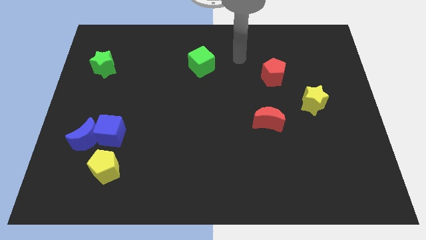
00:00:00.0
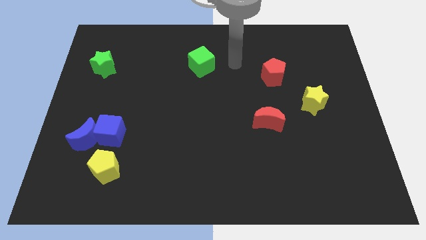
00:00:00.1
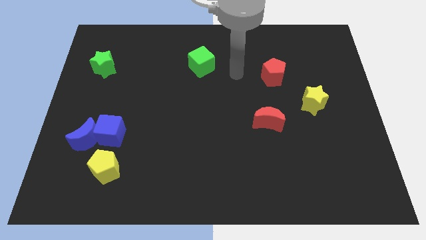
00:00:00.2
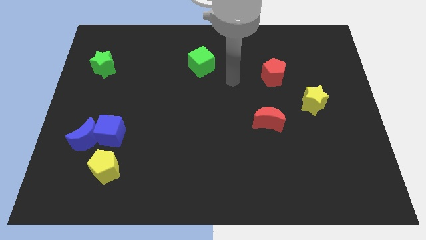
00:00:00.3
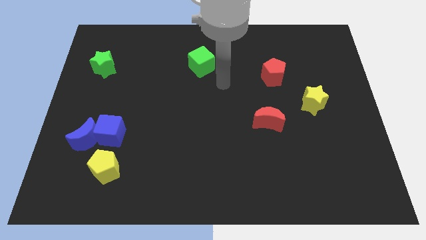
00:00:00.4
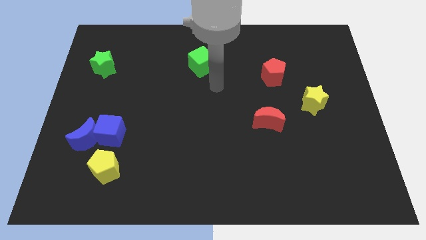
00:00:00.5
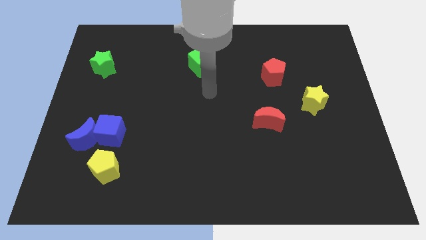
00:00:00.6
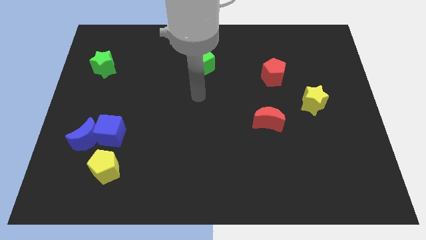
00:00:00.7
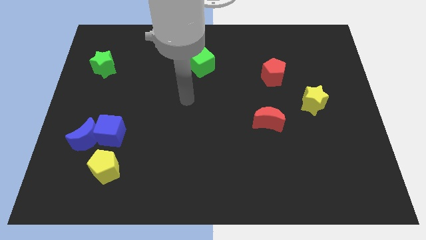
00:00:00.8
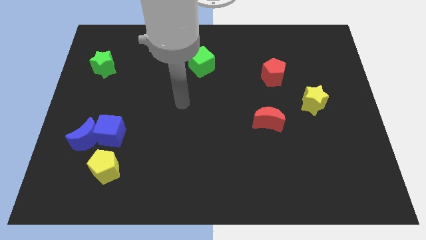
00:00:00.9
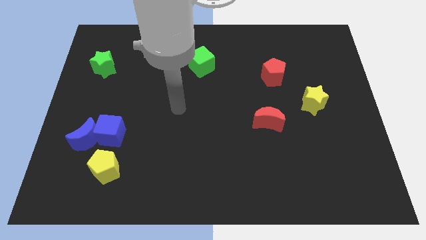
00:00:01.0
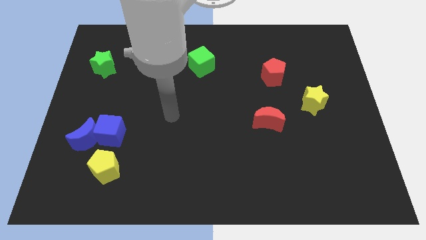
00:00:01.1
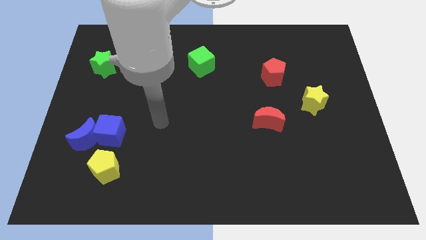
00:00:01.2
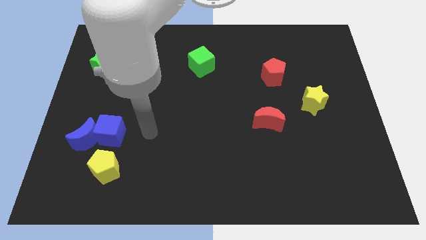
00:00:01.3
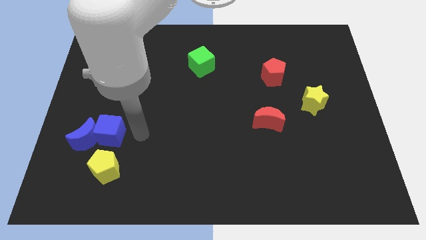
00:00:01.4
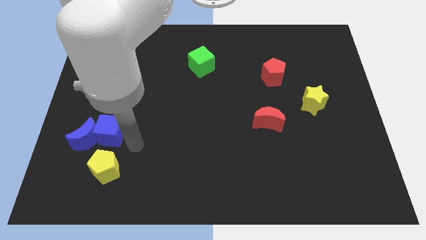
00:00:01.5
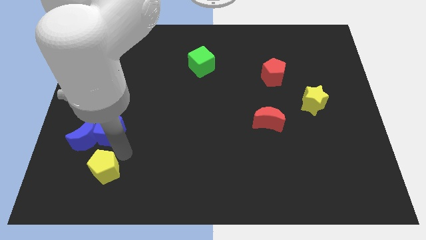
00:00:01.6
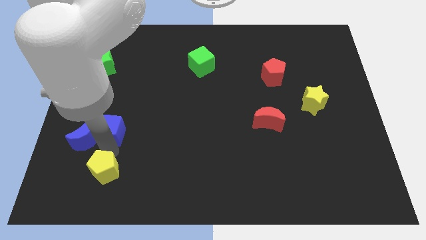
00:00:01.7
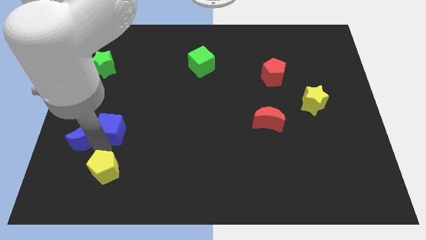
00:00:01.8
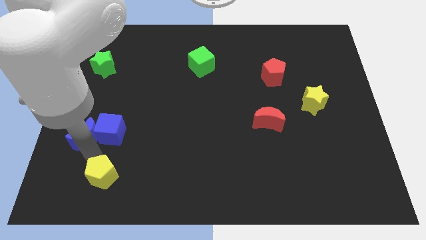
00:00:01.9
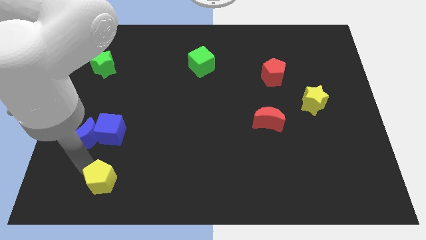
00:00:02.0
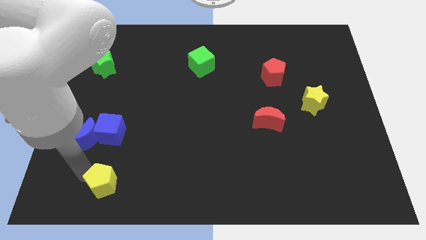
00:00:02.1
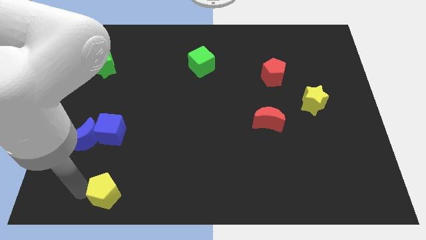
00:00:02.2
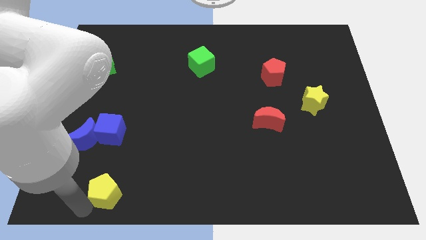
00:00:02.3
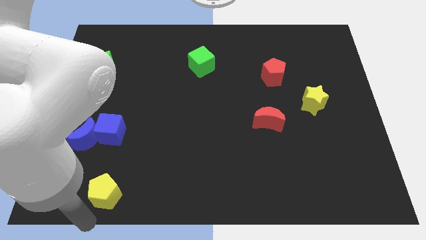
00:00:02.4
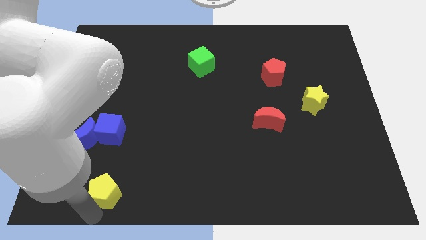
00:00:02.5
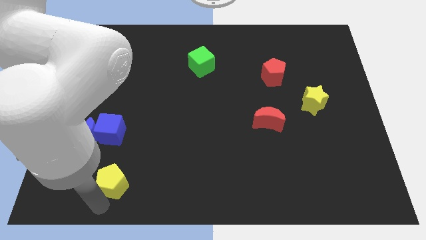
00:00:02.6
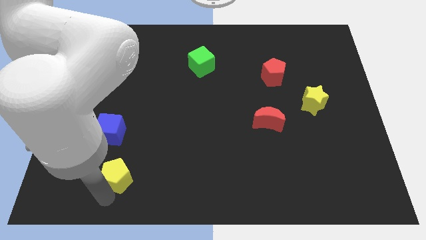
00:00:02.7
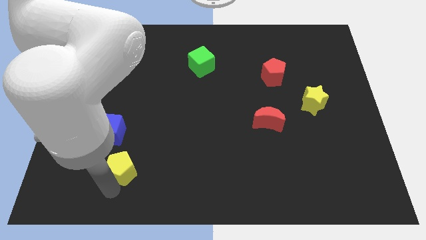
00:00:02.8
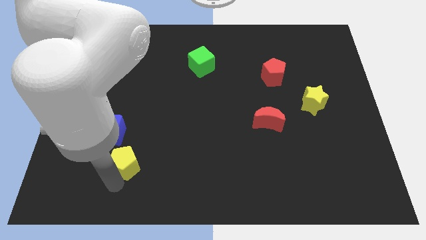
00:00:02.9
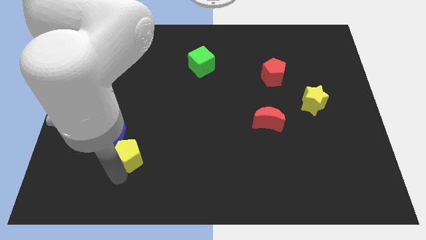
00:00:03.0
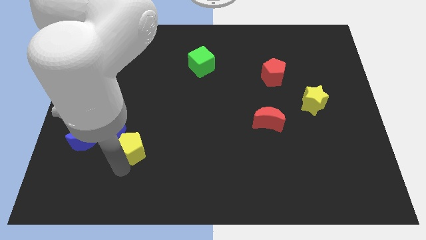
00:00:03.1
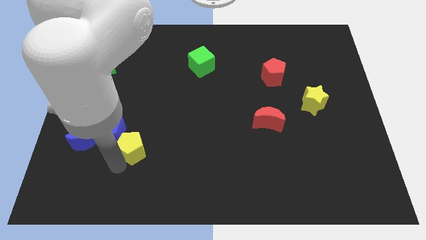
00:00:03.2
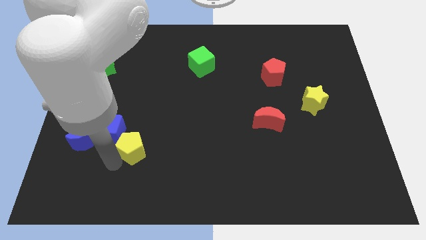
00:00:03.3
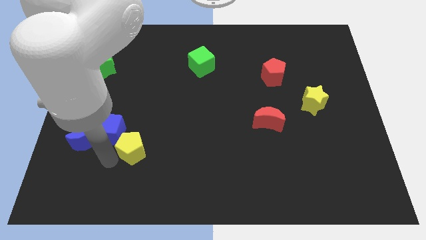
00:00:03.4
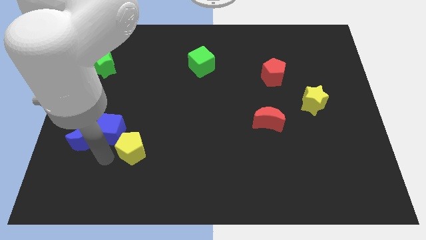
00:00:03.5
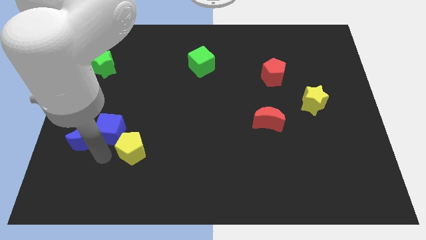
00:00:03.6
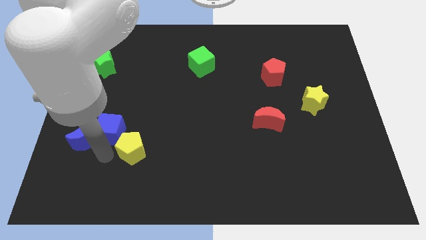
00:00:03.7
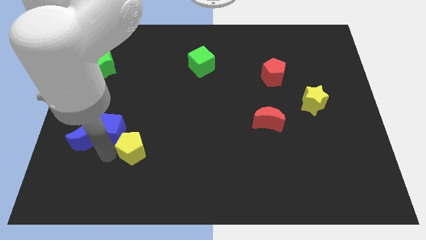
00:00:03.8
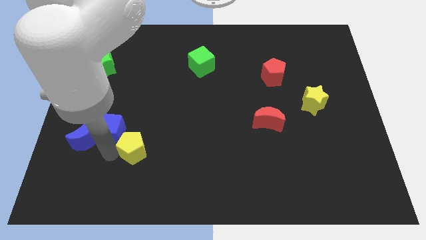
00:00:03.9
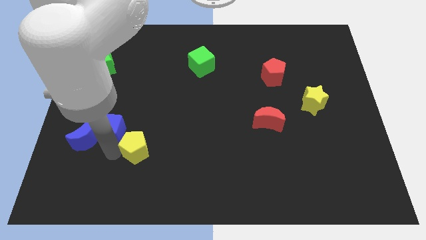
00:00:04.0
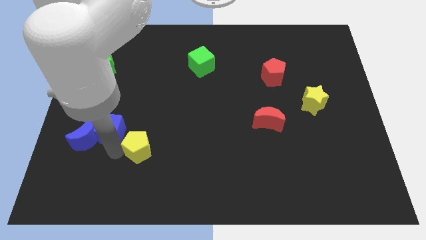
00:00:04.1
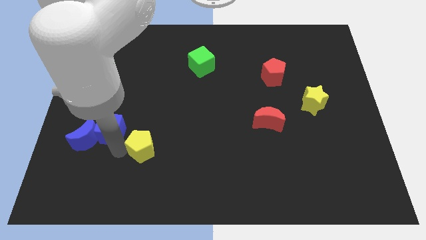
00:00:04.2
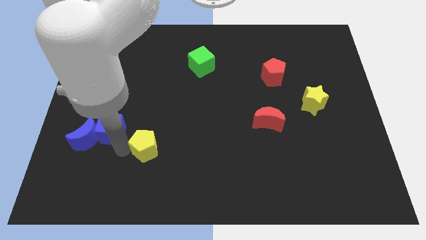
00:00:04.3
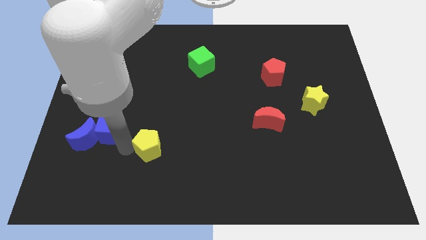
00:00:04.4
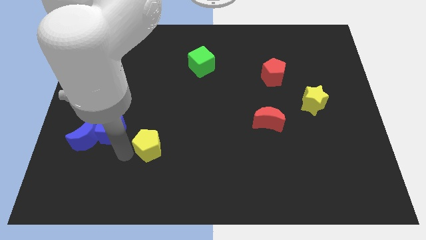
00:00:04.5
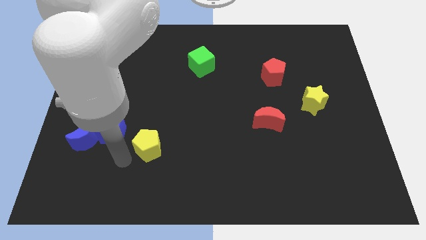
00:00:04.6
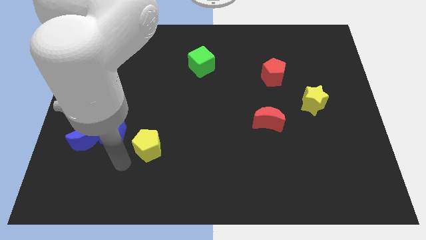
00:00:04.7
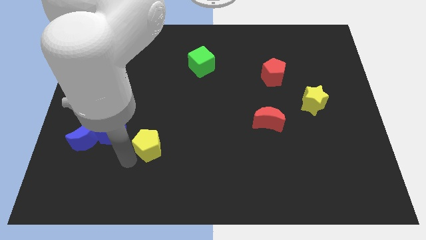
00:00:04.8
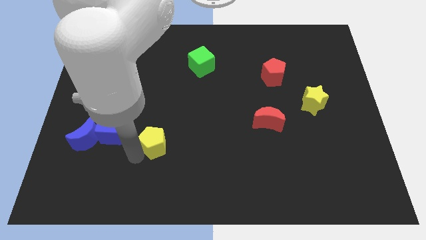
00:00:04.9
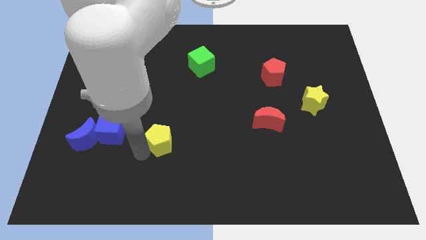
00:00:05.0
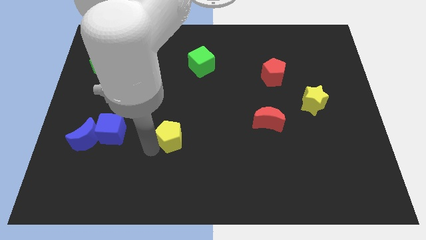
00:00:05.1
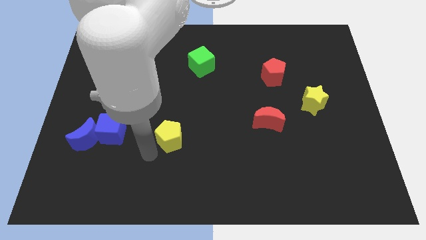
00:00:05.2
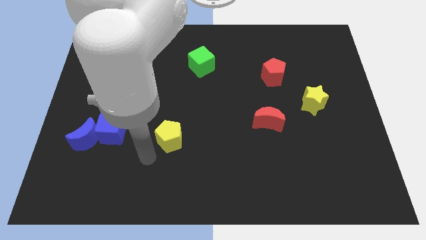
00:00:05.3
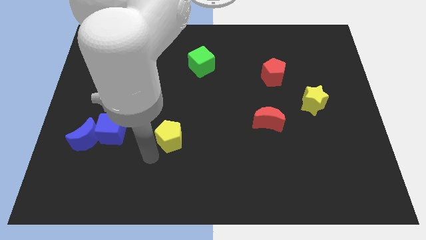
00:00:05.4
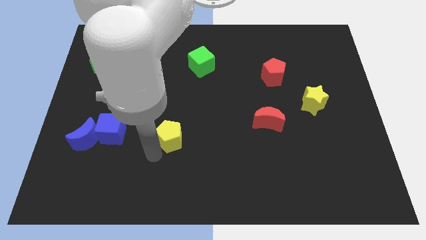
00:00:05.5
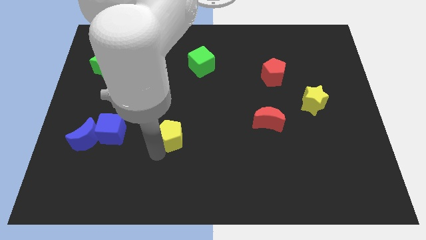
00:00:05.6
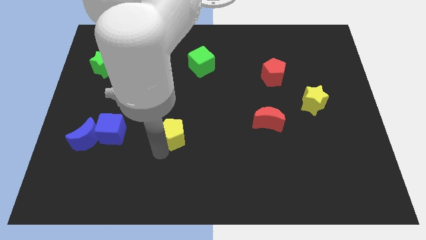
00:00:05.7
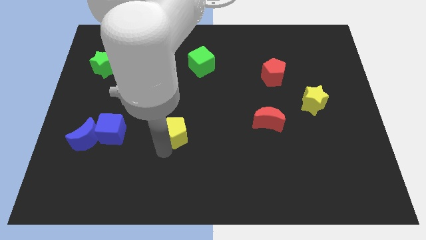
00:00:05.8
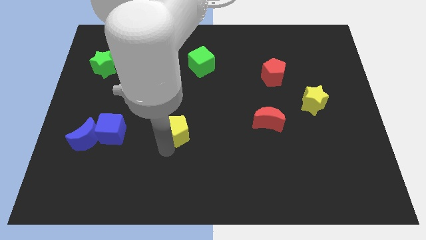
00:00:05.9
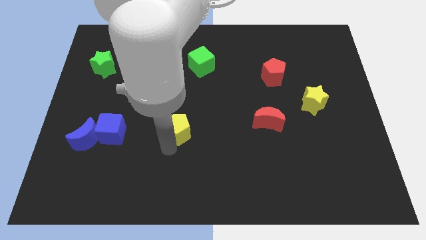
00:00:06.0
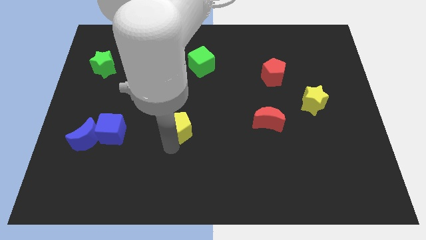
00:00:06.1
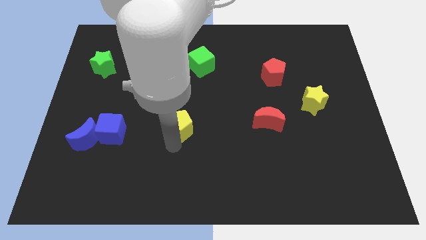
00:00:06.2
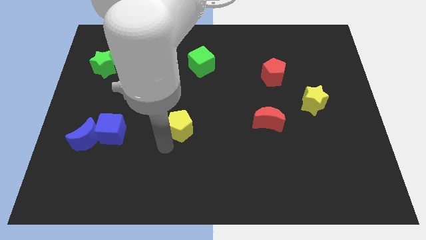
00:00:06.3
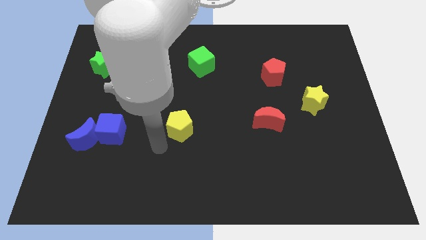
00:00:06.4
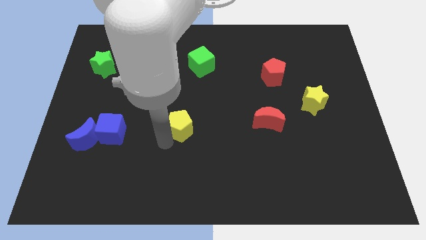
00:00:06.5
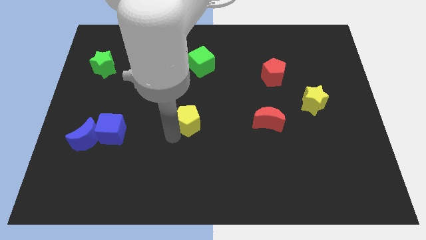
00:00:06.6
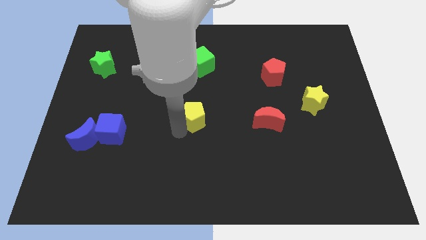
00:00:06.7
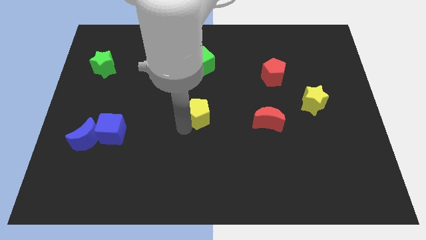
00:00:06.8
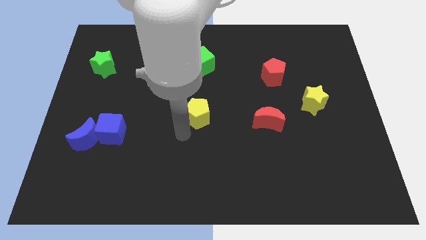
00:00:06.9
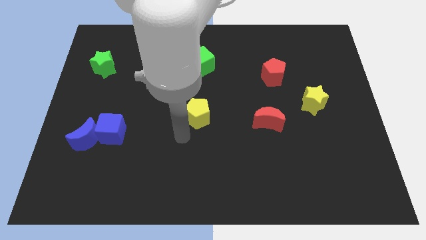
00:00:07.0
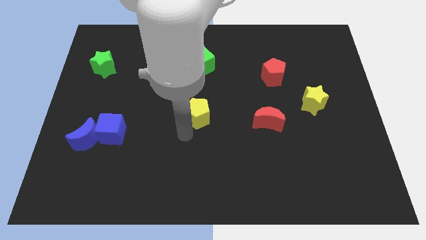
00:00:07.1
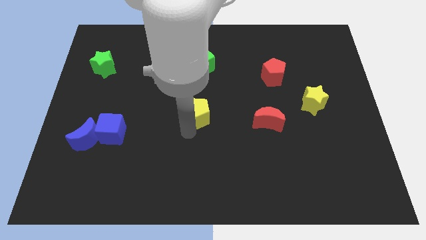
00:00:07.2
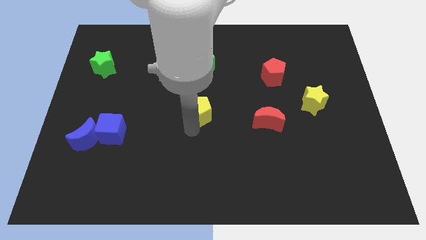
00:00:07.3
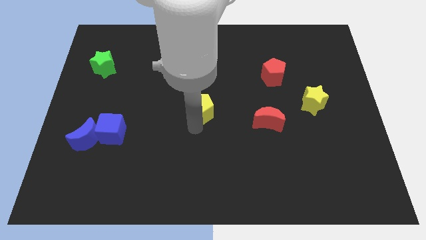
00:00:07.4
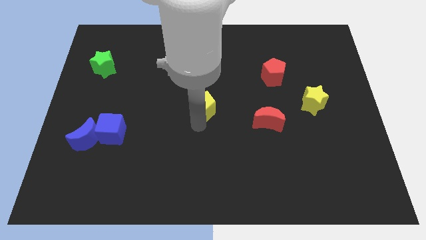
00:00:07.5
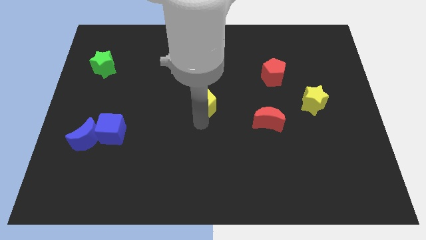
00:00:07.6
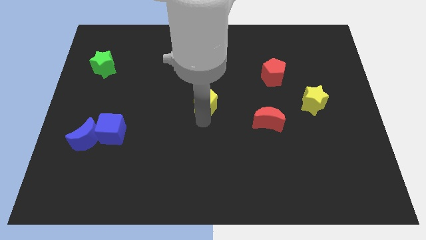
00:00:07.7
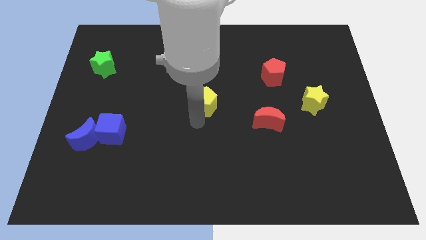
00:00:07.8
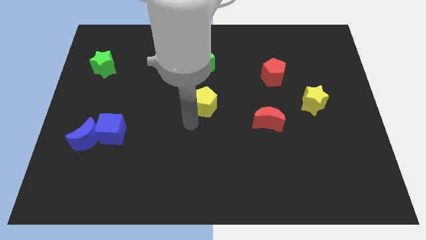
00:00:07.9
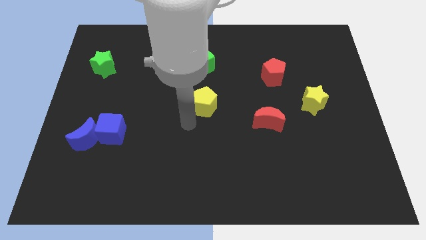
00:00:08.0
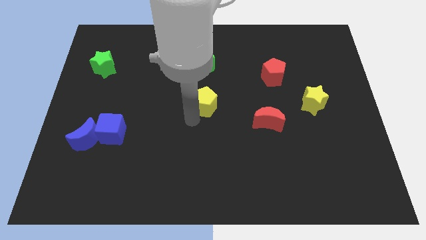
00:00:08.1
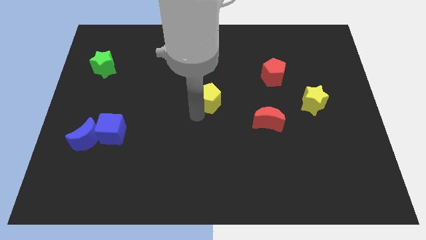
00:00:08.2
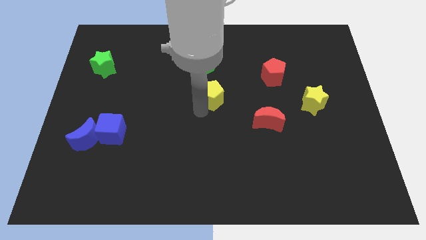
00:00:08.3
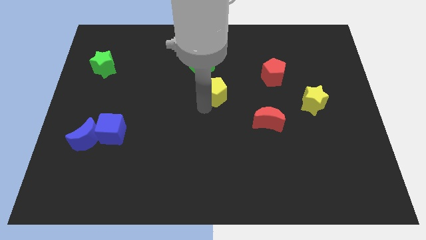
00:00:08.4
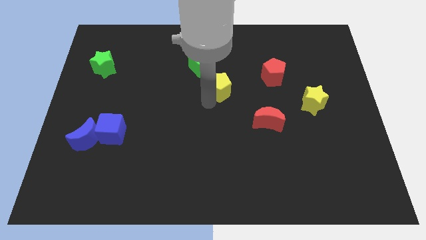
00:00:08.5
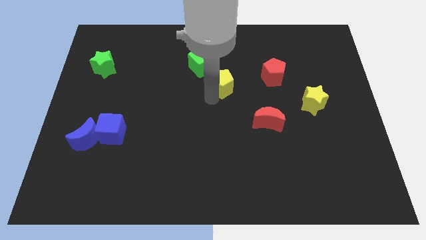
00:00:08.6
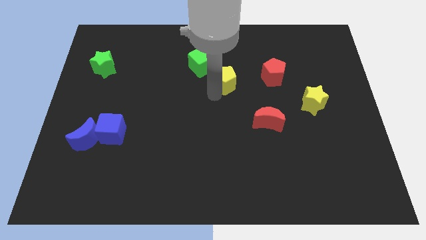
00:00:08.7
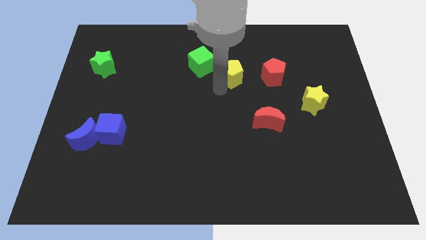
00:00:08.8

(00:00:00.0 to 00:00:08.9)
move the yellow pentagon to the right of the green cube
